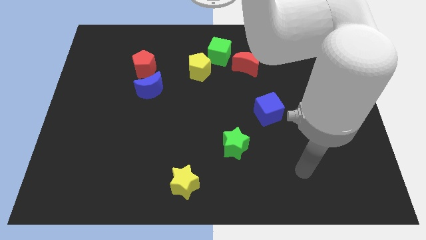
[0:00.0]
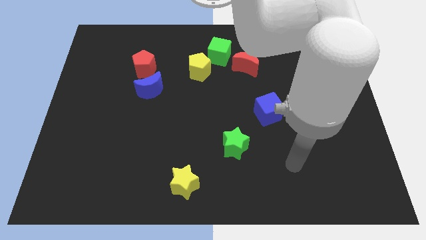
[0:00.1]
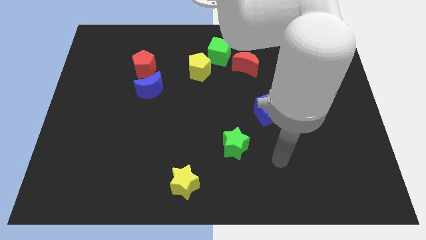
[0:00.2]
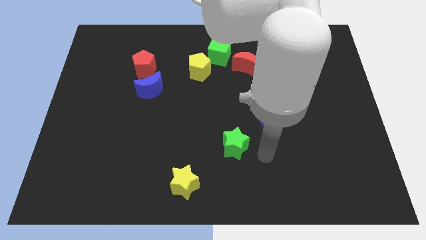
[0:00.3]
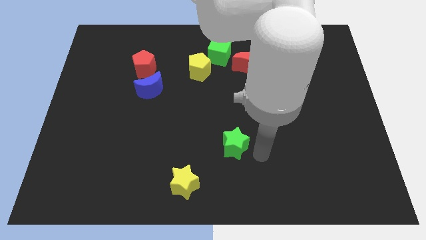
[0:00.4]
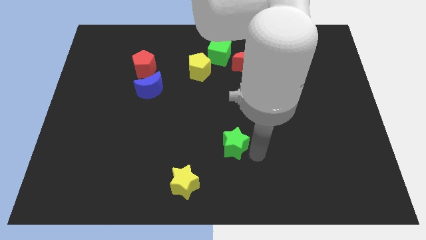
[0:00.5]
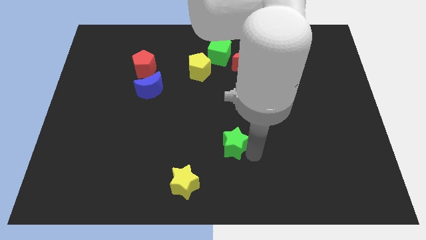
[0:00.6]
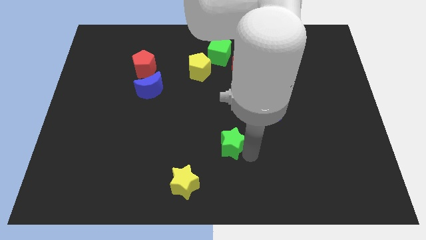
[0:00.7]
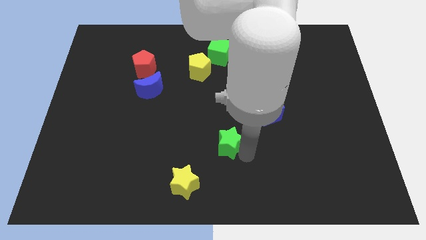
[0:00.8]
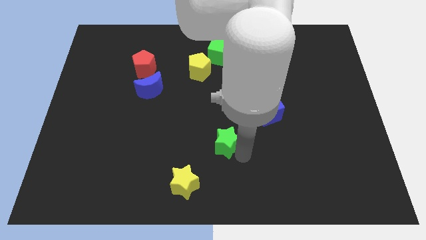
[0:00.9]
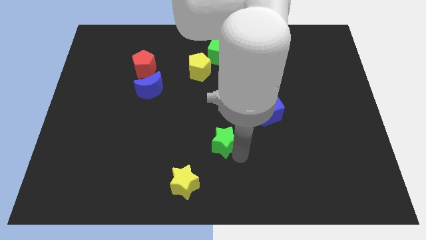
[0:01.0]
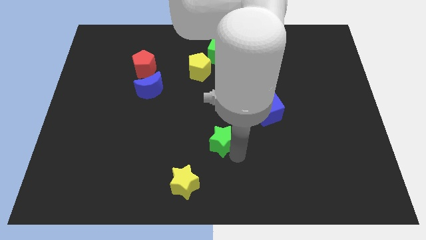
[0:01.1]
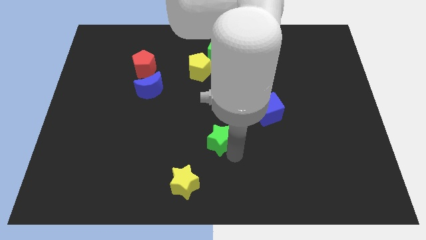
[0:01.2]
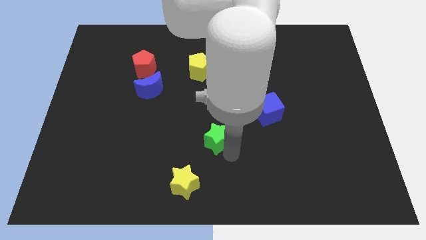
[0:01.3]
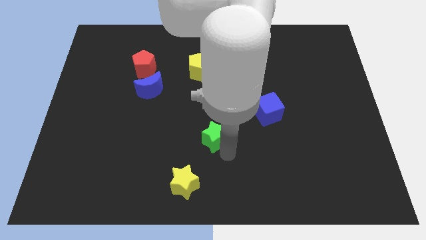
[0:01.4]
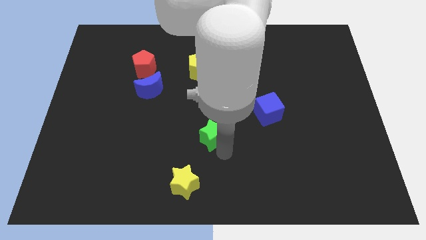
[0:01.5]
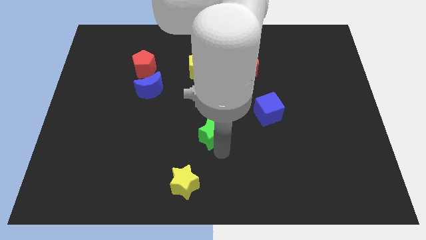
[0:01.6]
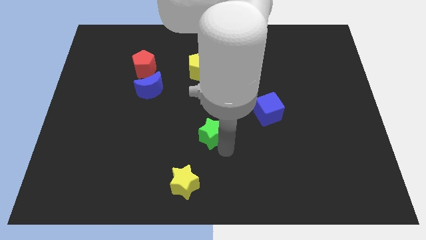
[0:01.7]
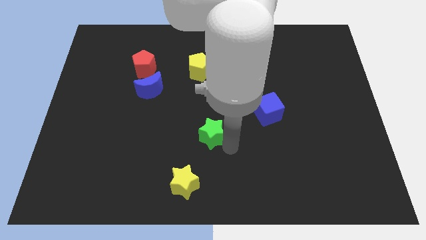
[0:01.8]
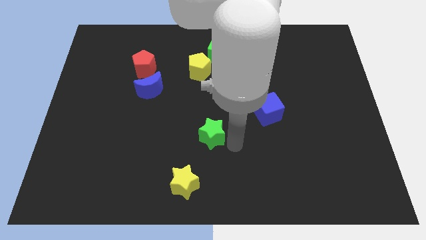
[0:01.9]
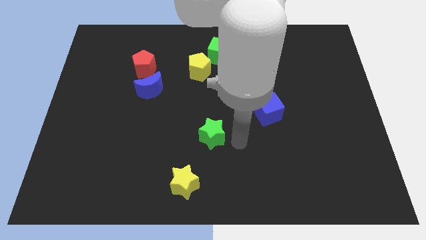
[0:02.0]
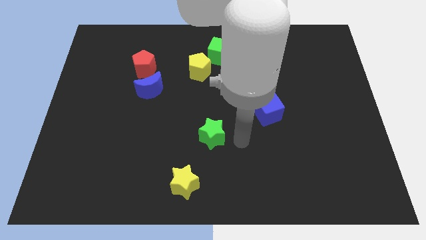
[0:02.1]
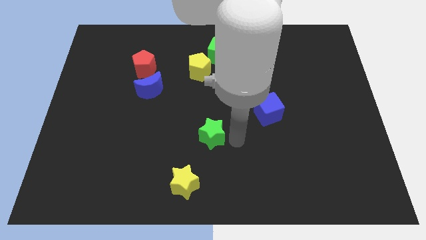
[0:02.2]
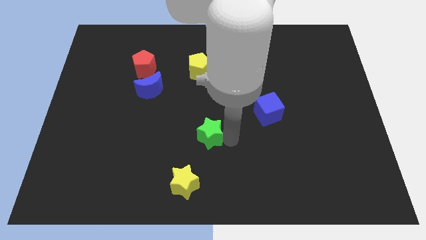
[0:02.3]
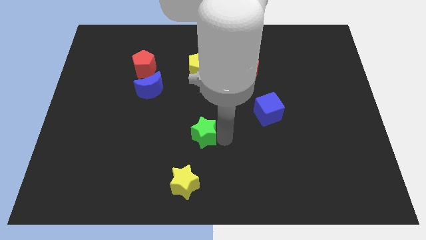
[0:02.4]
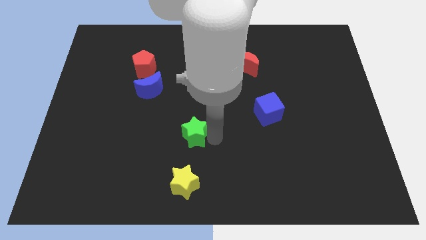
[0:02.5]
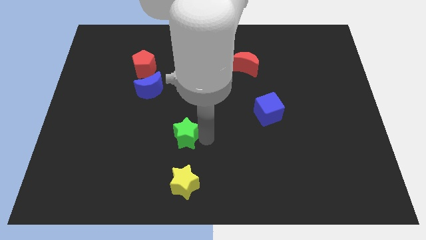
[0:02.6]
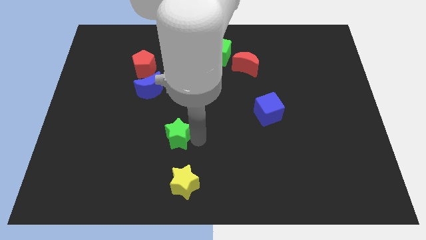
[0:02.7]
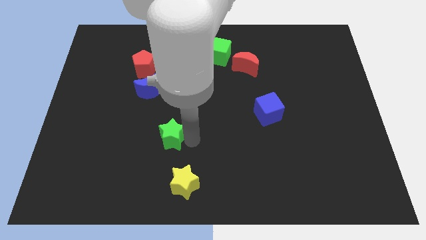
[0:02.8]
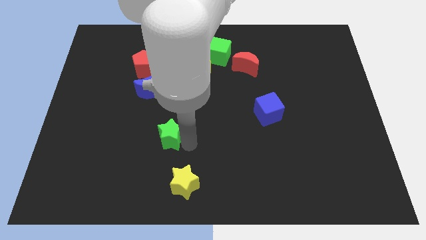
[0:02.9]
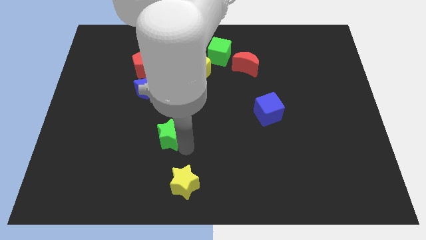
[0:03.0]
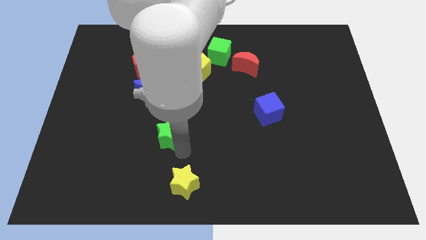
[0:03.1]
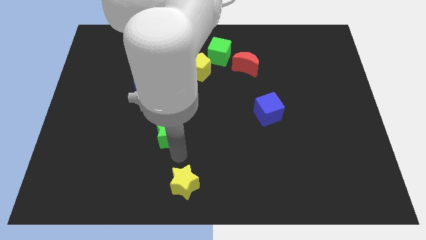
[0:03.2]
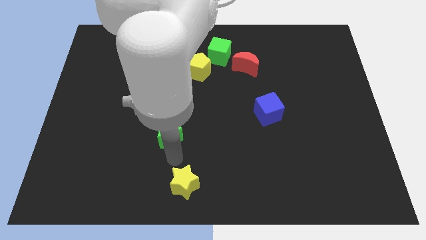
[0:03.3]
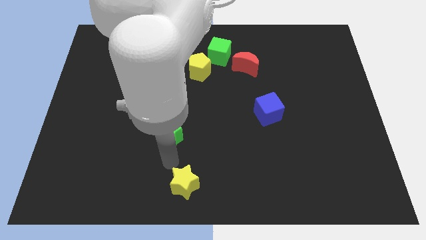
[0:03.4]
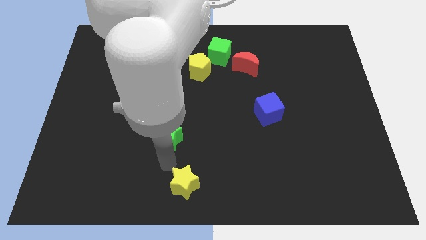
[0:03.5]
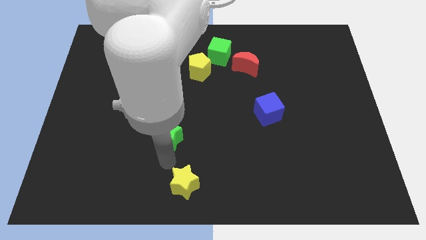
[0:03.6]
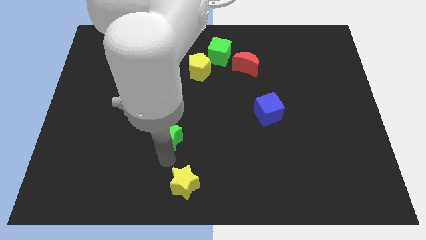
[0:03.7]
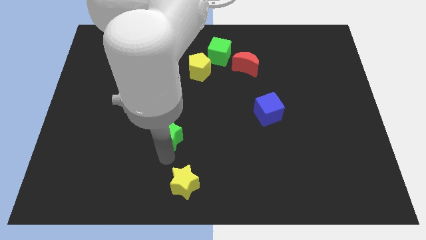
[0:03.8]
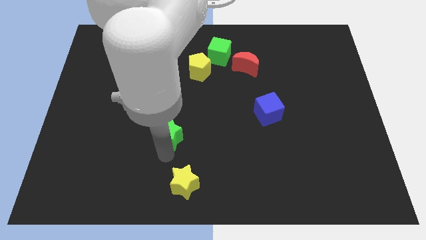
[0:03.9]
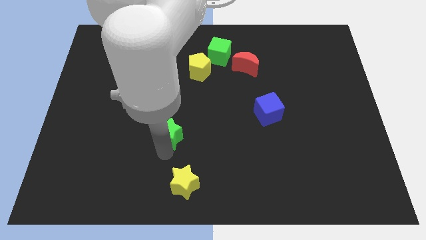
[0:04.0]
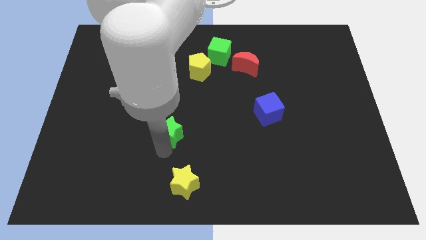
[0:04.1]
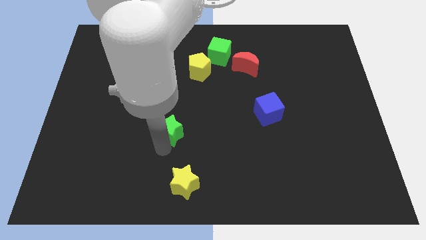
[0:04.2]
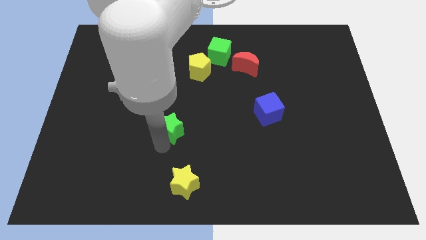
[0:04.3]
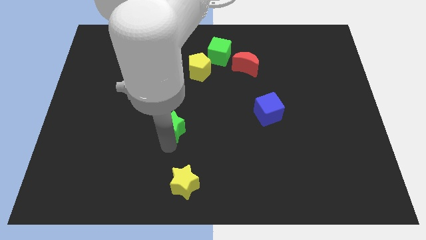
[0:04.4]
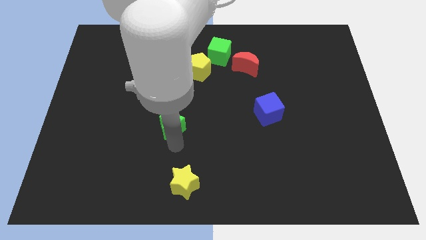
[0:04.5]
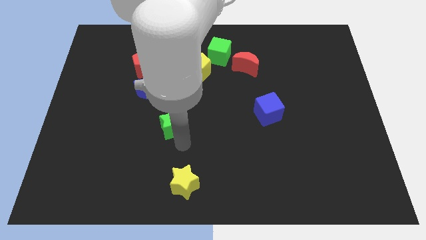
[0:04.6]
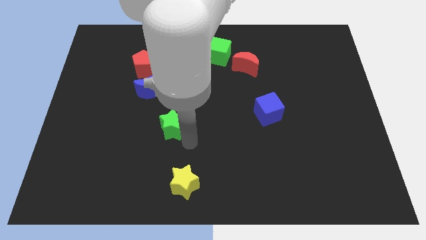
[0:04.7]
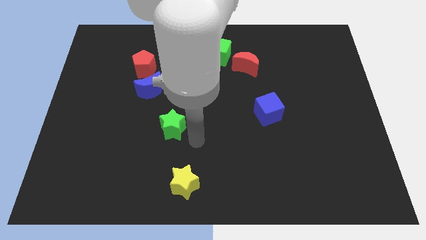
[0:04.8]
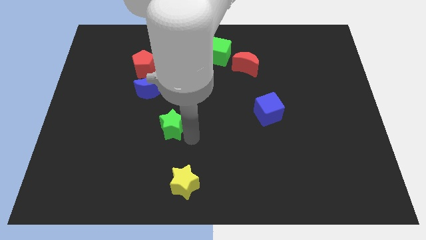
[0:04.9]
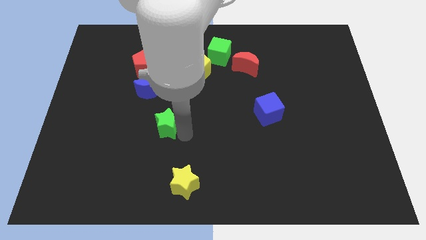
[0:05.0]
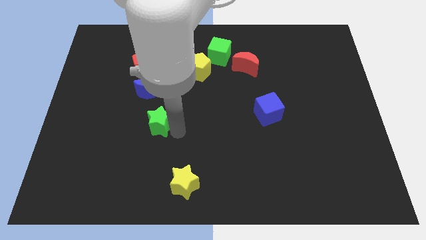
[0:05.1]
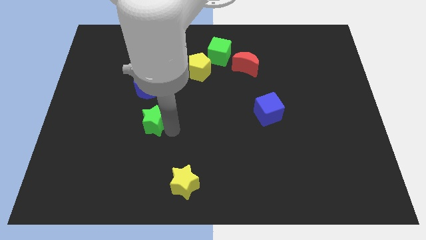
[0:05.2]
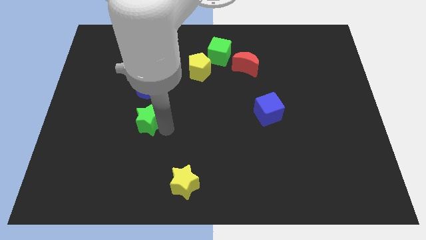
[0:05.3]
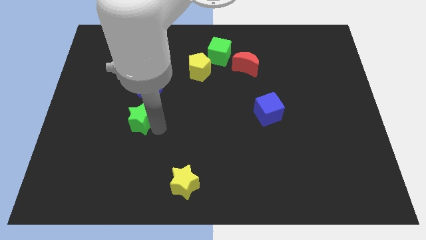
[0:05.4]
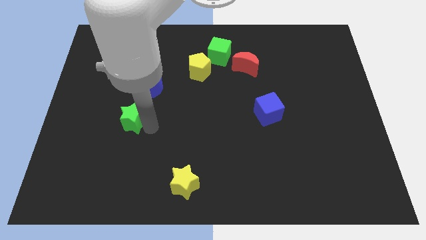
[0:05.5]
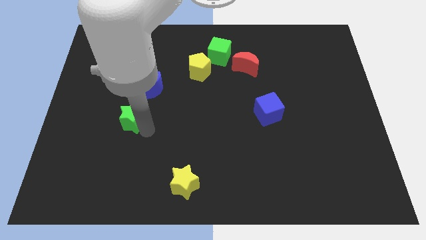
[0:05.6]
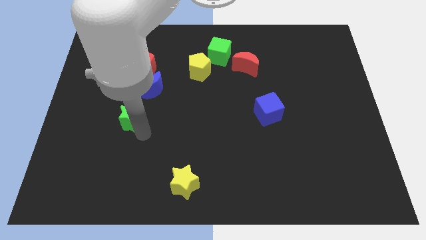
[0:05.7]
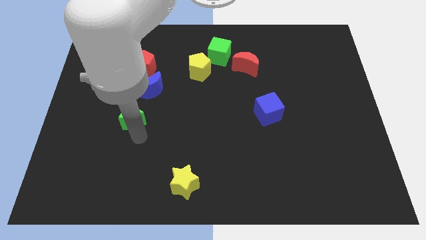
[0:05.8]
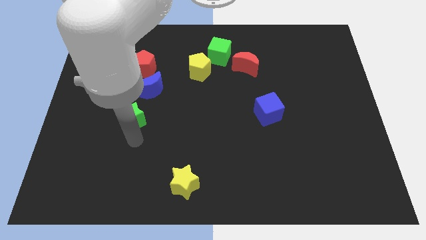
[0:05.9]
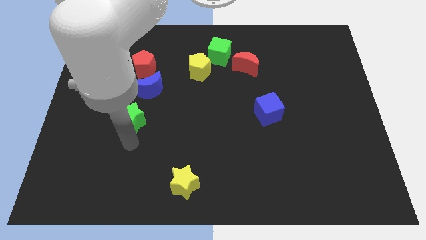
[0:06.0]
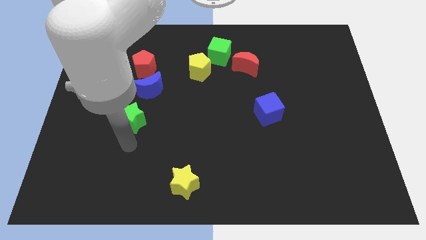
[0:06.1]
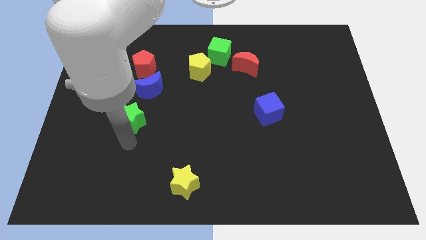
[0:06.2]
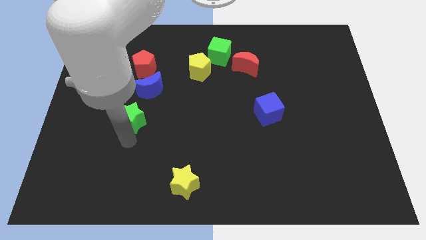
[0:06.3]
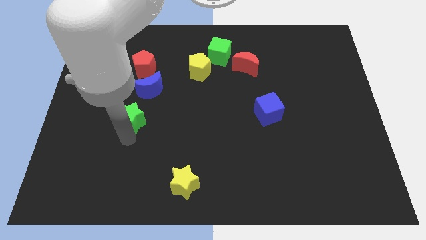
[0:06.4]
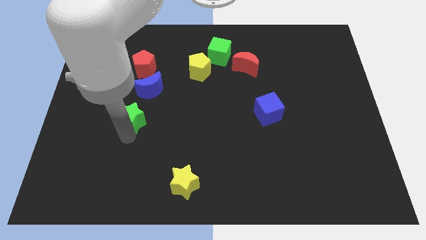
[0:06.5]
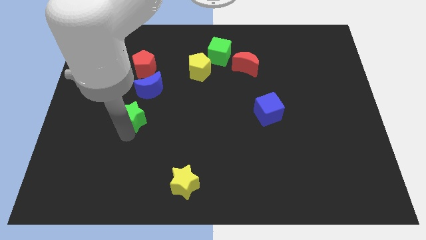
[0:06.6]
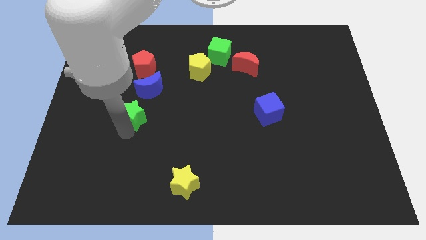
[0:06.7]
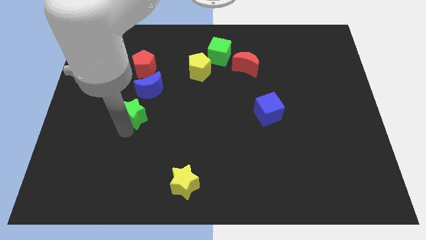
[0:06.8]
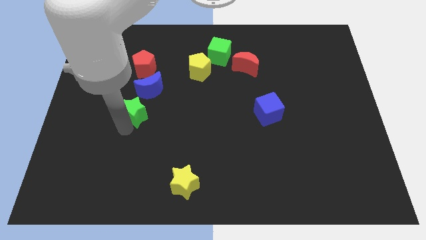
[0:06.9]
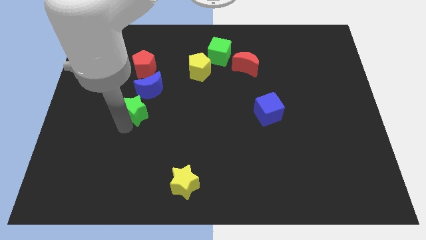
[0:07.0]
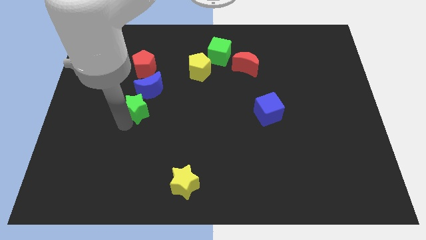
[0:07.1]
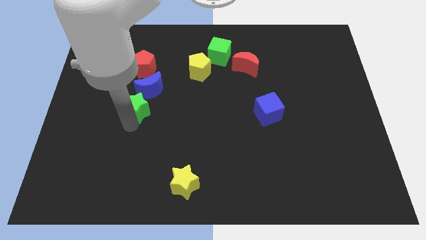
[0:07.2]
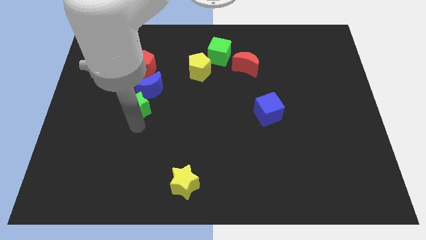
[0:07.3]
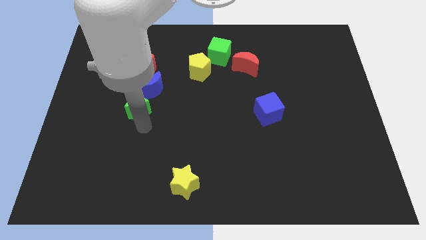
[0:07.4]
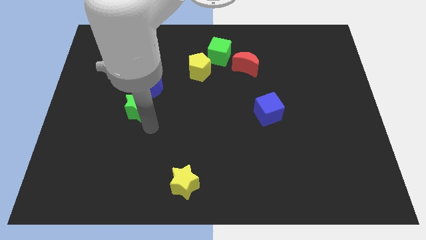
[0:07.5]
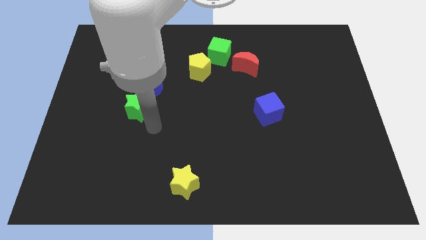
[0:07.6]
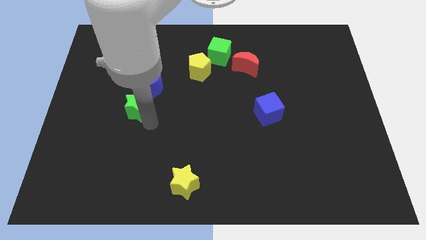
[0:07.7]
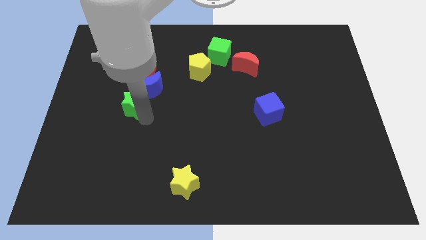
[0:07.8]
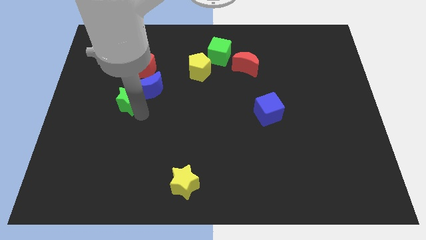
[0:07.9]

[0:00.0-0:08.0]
push the green star to the left of the blue moon
